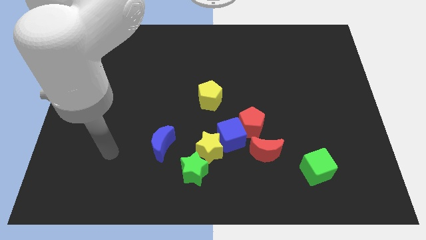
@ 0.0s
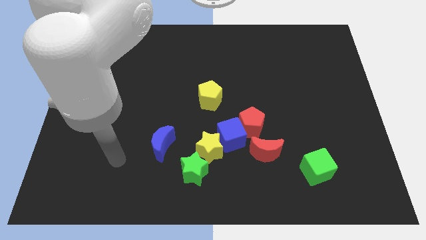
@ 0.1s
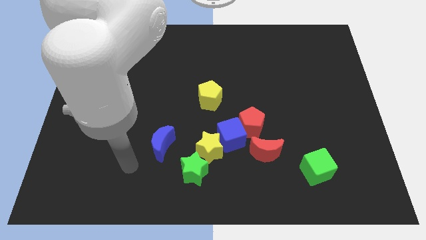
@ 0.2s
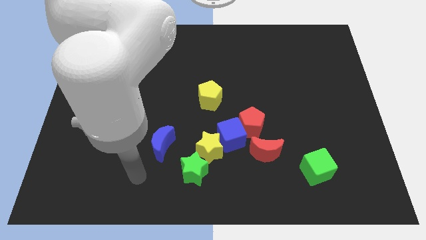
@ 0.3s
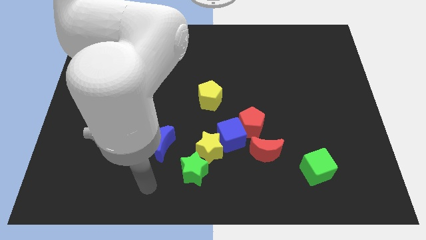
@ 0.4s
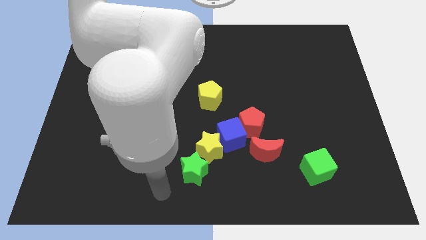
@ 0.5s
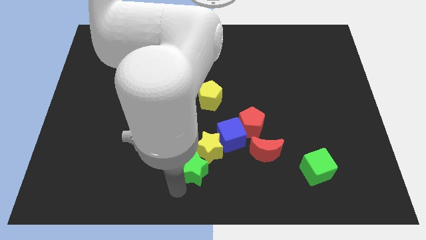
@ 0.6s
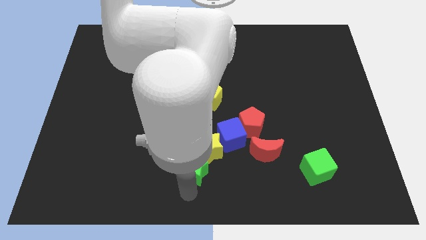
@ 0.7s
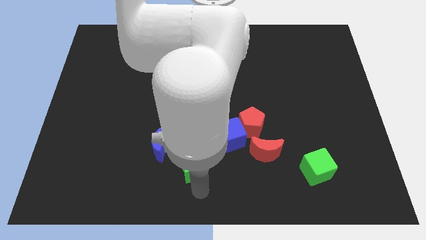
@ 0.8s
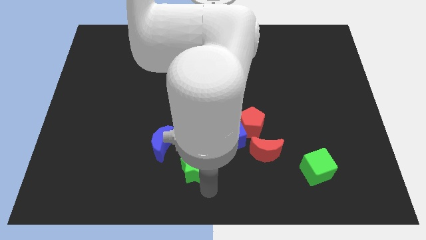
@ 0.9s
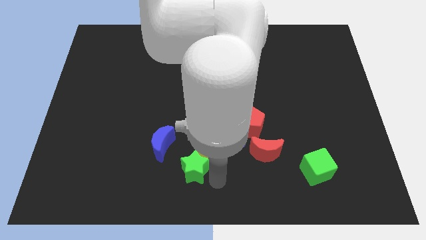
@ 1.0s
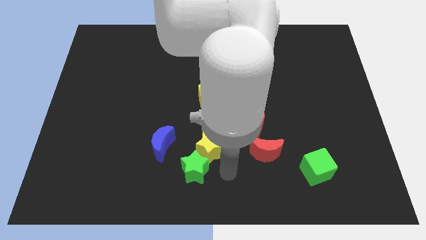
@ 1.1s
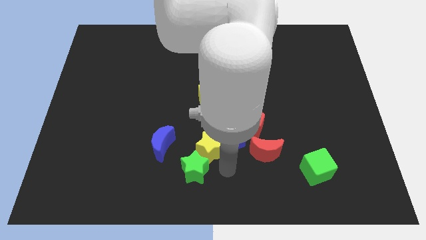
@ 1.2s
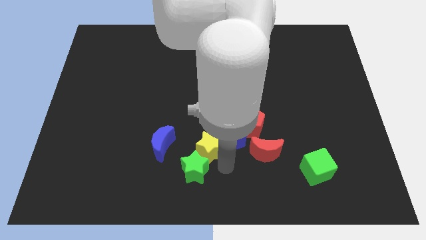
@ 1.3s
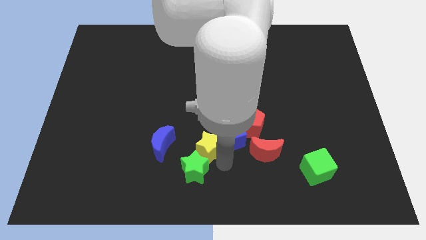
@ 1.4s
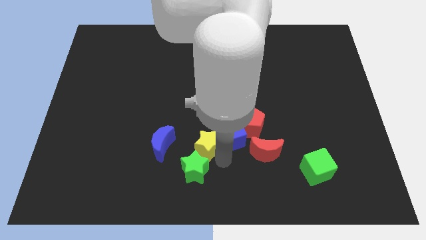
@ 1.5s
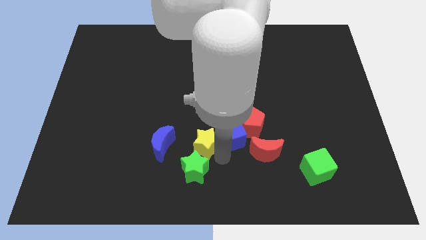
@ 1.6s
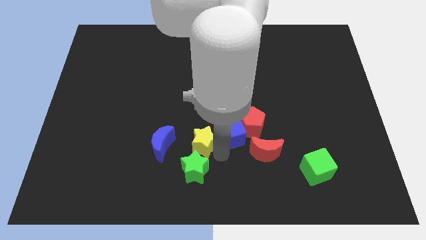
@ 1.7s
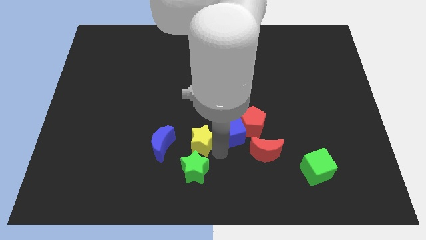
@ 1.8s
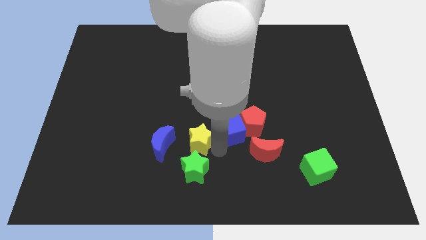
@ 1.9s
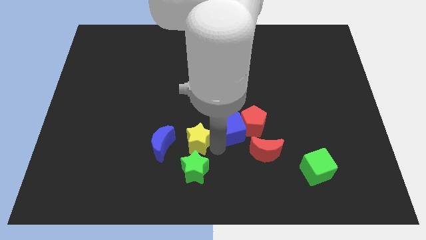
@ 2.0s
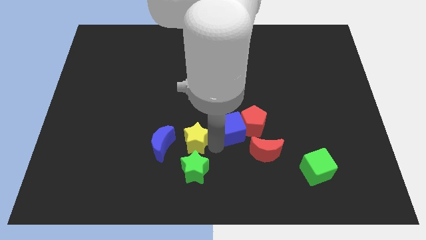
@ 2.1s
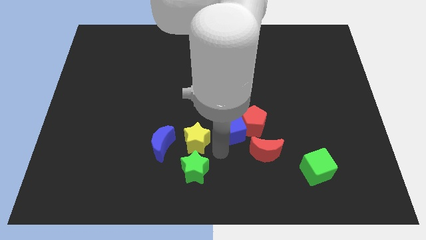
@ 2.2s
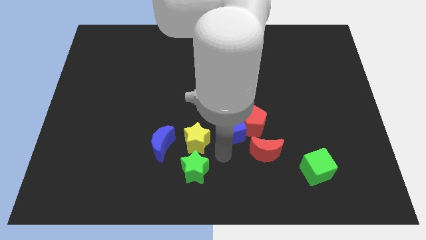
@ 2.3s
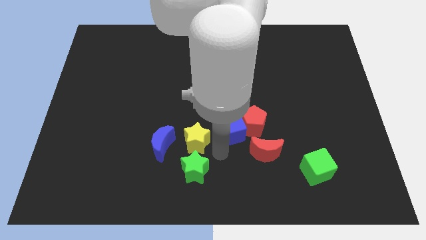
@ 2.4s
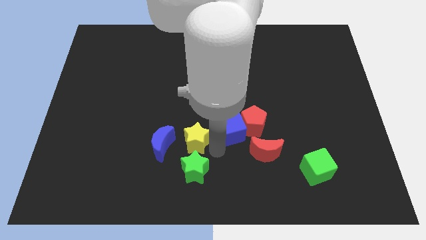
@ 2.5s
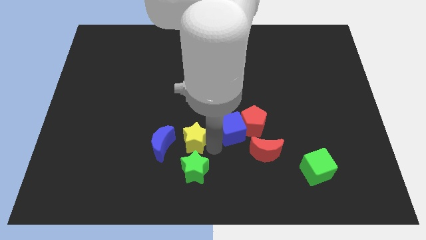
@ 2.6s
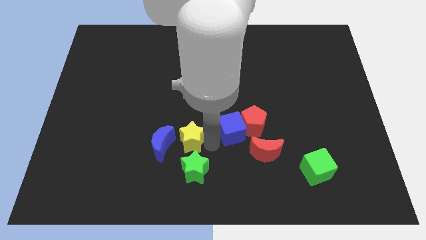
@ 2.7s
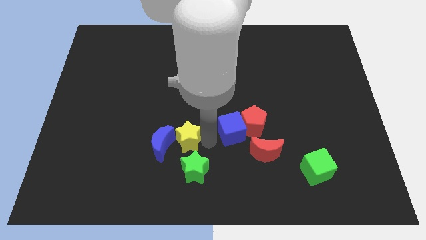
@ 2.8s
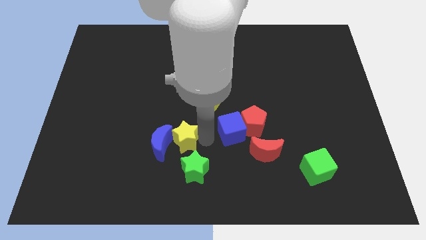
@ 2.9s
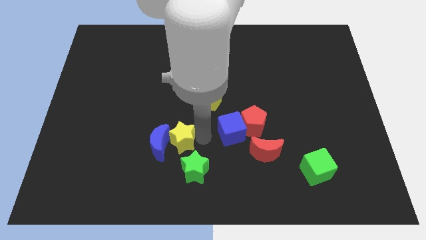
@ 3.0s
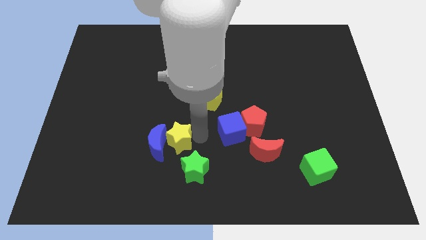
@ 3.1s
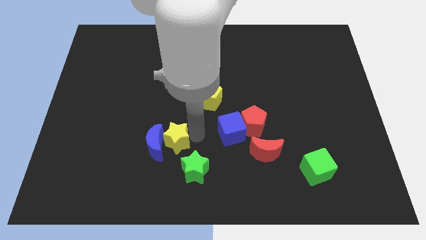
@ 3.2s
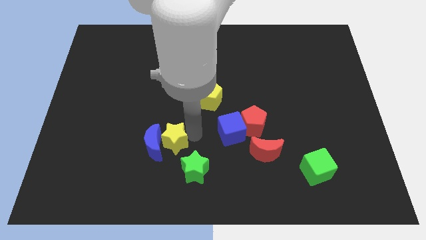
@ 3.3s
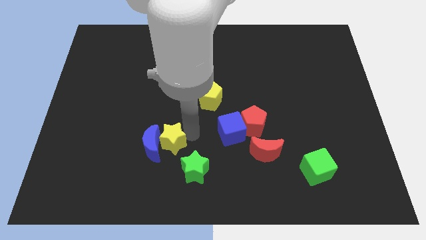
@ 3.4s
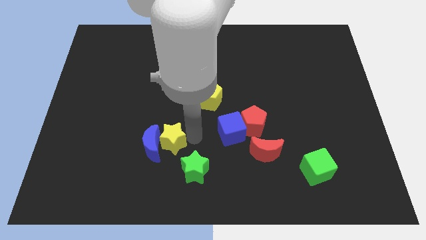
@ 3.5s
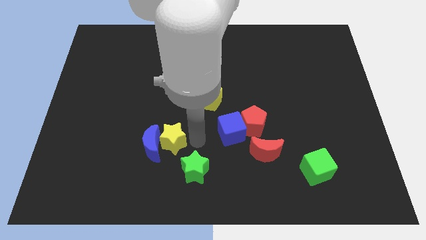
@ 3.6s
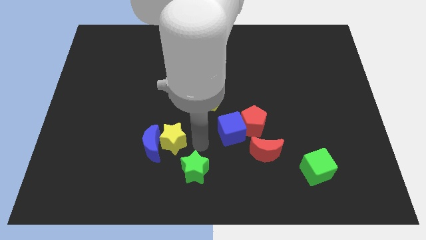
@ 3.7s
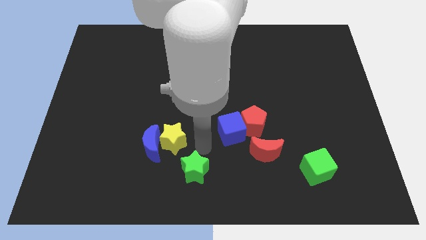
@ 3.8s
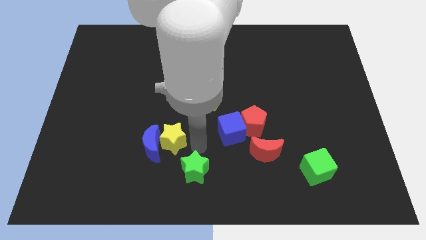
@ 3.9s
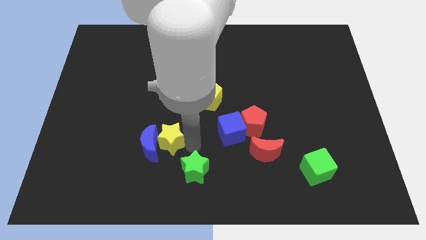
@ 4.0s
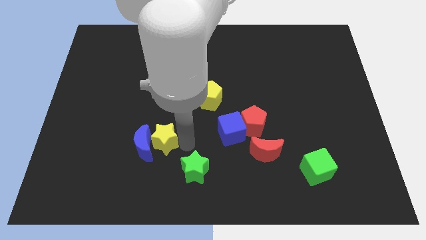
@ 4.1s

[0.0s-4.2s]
move the yellow star away from the blue cube and green star

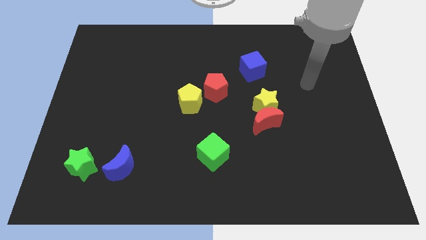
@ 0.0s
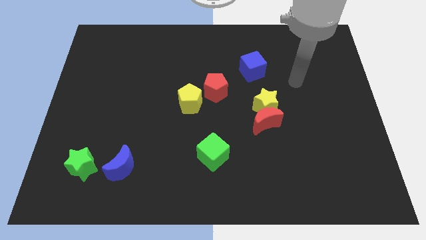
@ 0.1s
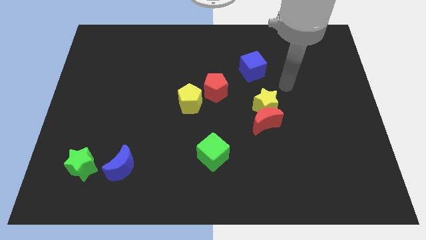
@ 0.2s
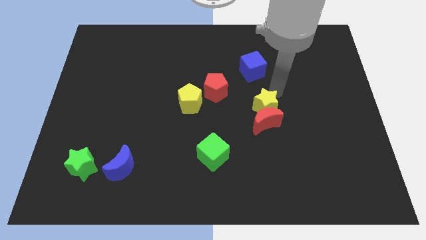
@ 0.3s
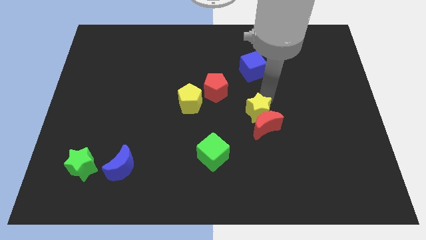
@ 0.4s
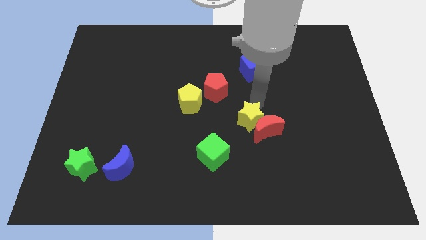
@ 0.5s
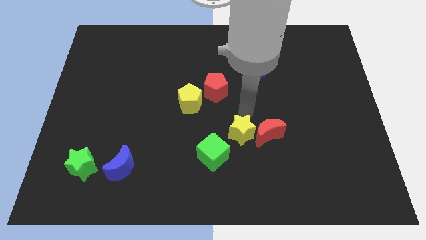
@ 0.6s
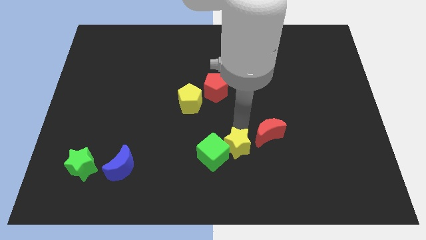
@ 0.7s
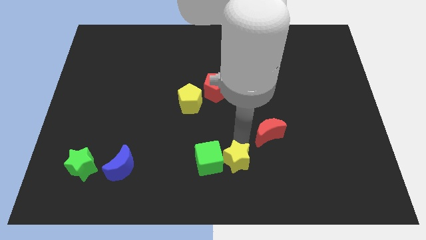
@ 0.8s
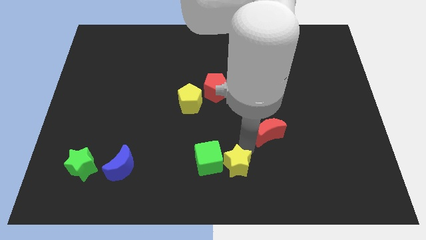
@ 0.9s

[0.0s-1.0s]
pull the red moon apart from the yellow star

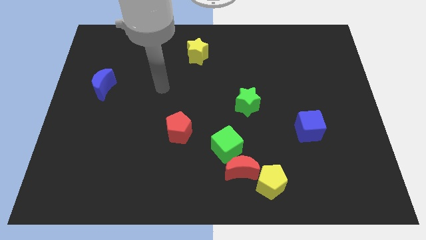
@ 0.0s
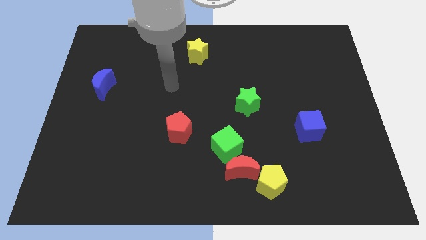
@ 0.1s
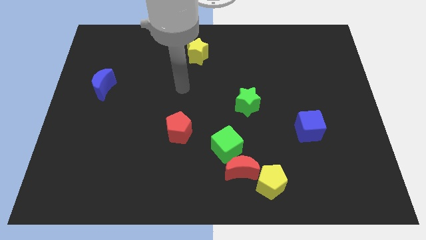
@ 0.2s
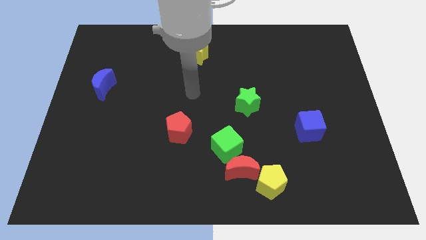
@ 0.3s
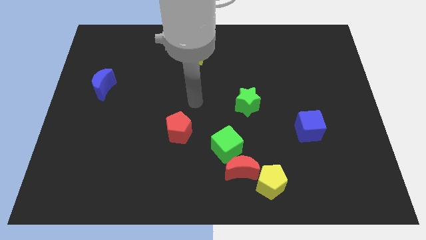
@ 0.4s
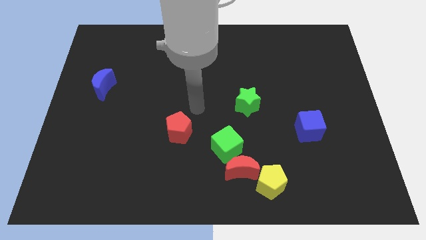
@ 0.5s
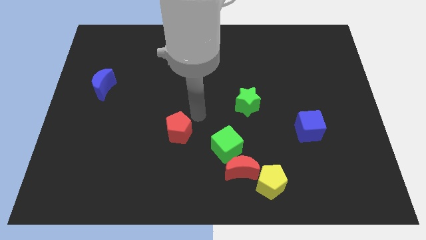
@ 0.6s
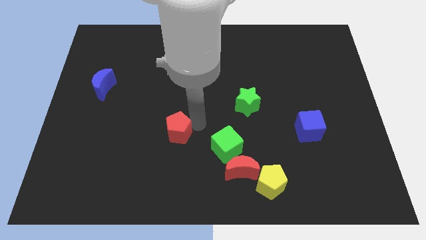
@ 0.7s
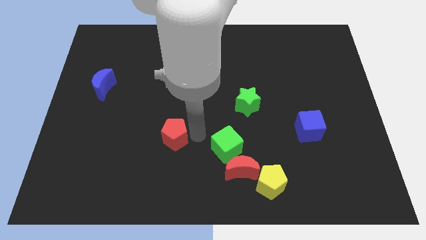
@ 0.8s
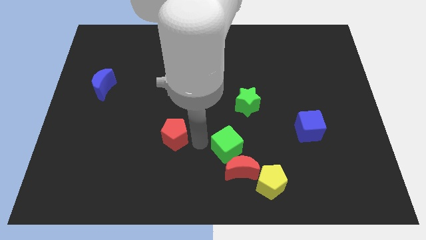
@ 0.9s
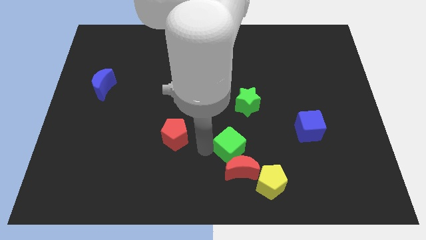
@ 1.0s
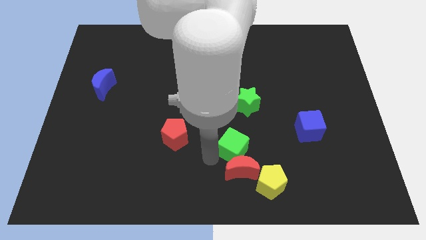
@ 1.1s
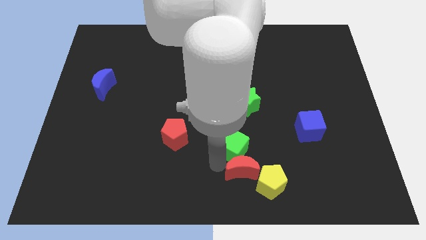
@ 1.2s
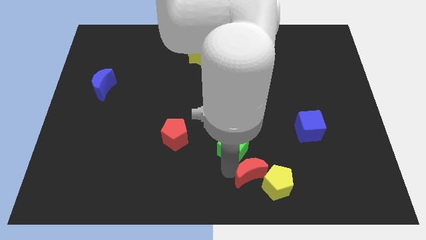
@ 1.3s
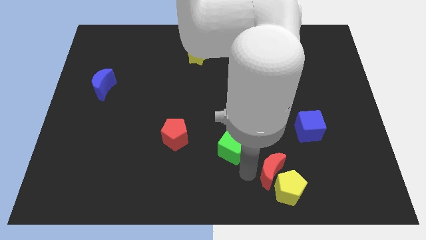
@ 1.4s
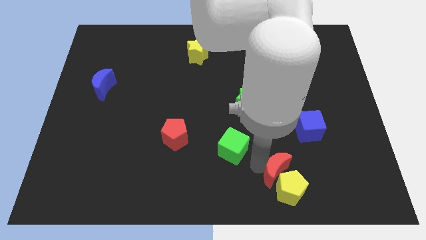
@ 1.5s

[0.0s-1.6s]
pull the green cube apart from the red moon

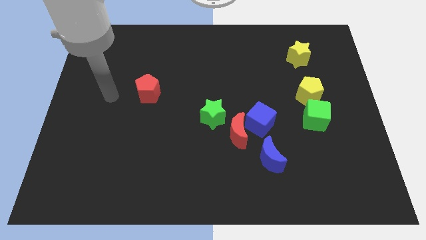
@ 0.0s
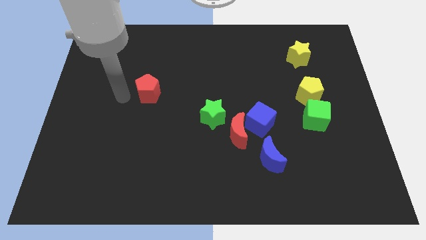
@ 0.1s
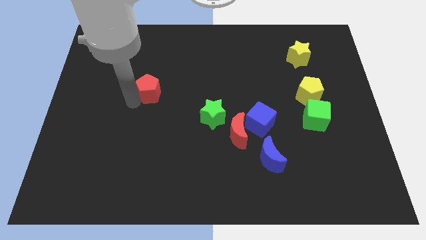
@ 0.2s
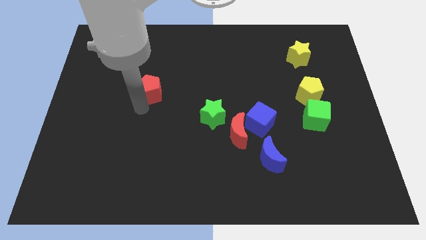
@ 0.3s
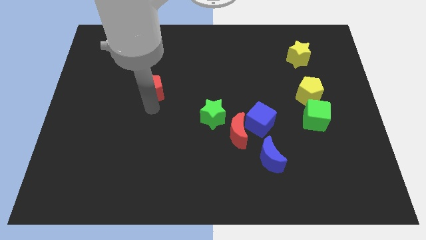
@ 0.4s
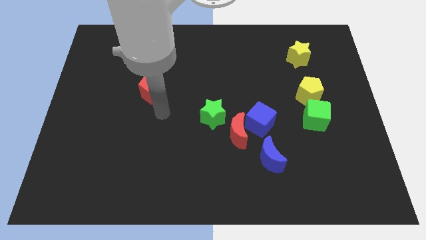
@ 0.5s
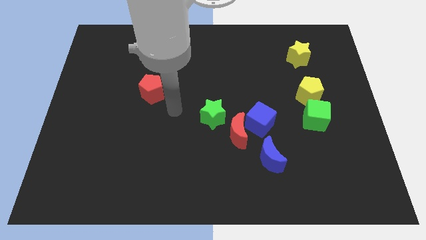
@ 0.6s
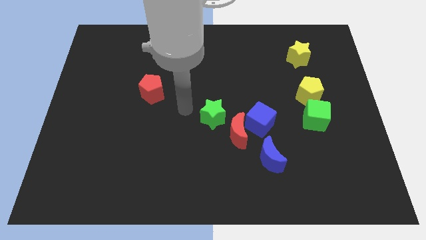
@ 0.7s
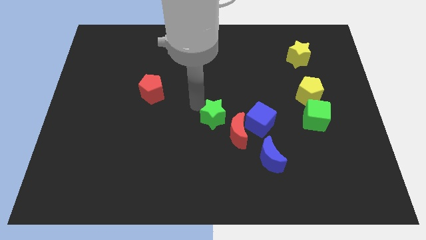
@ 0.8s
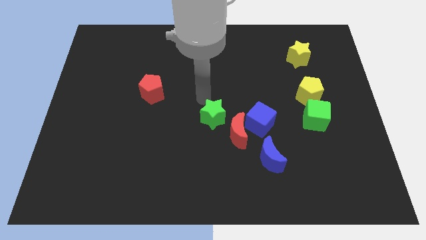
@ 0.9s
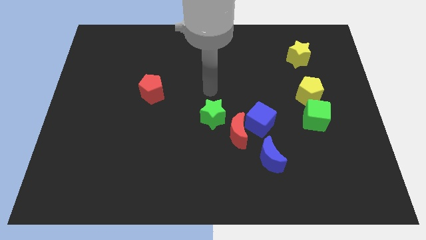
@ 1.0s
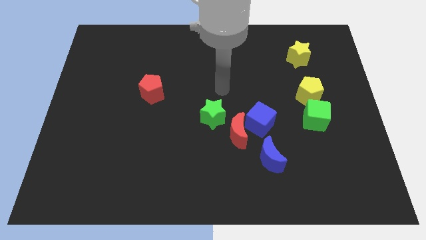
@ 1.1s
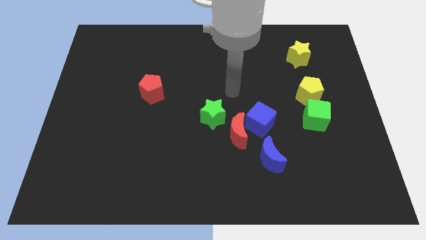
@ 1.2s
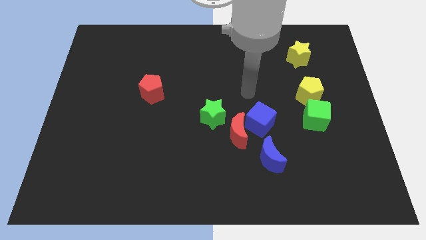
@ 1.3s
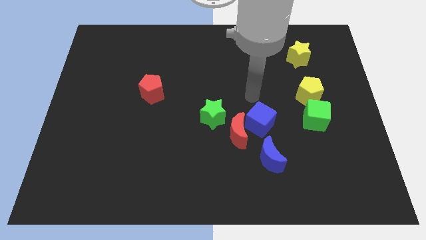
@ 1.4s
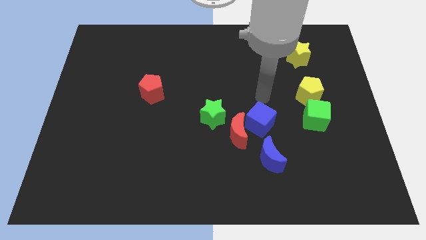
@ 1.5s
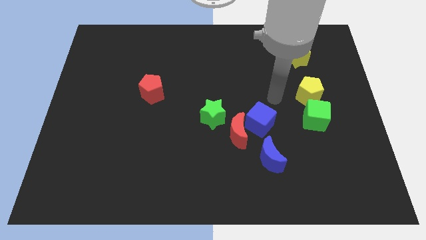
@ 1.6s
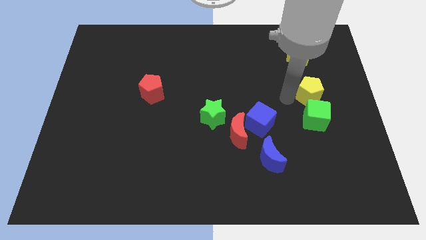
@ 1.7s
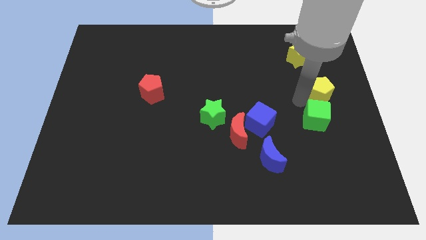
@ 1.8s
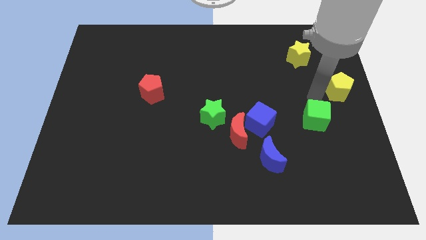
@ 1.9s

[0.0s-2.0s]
pull the green cube apart from the yellow pentagon

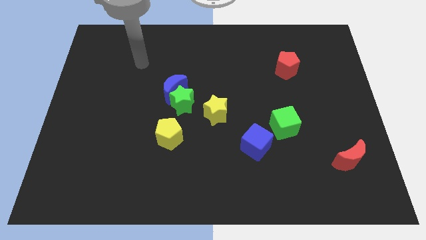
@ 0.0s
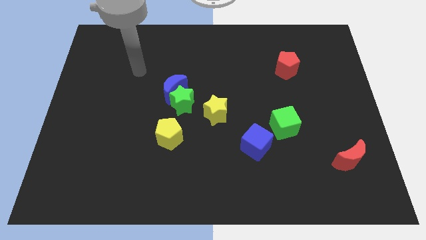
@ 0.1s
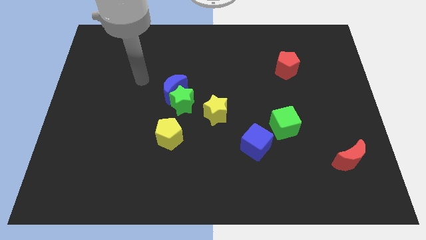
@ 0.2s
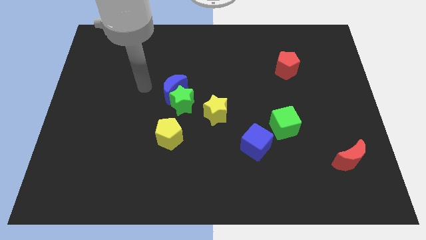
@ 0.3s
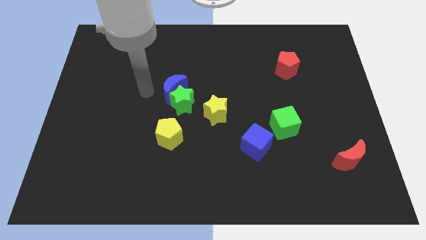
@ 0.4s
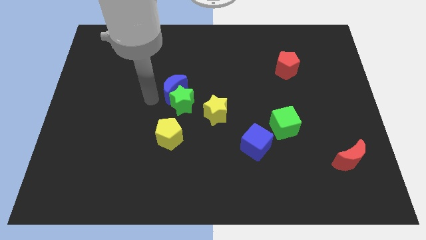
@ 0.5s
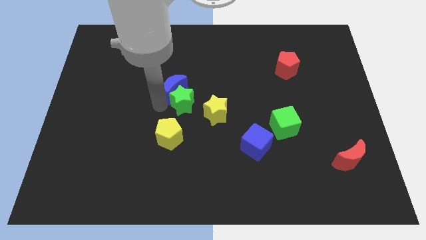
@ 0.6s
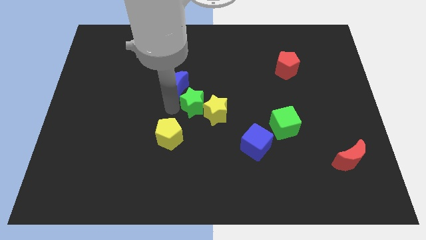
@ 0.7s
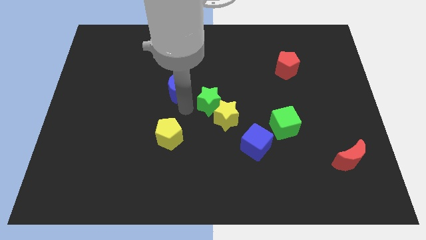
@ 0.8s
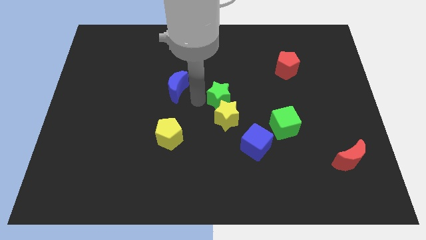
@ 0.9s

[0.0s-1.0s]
move the blue moon away from the green star
